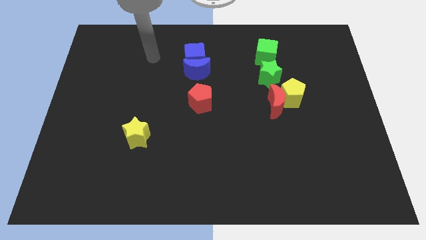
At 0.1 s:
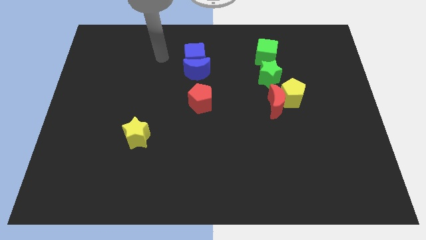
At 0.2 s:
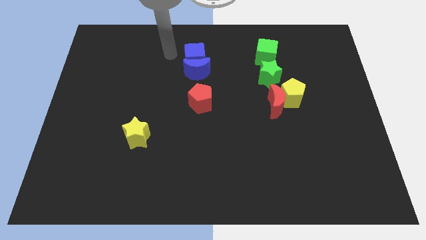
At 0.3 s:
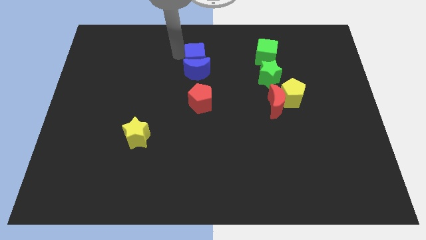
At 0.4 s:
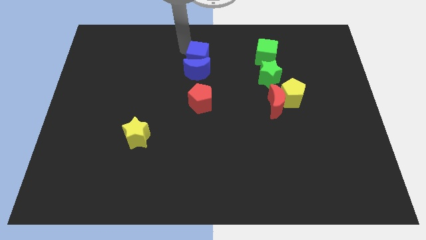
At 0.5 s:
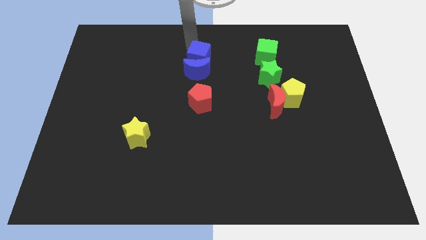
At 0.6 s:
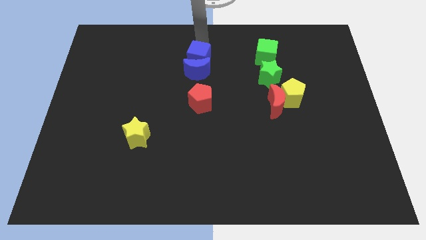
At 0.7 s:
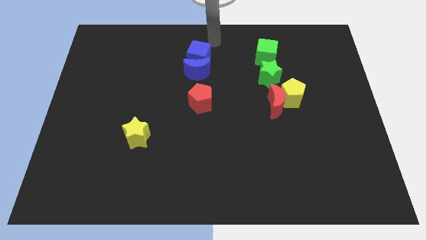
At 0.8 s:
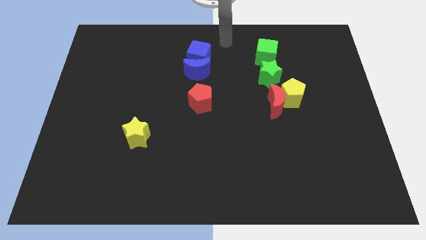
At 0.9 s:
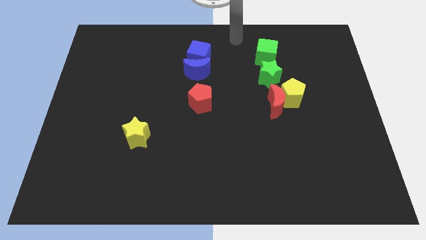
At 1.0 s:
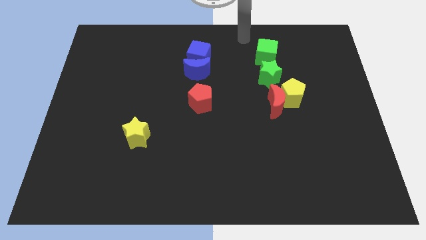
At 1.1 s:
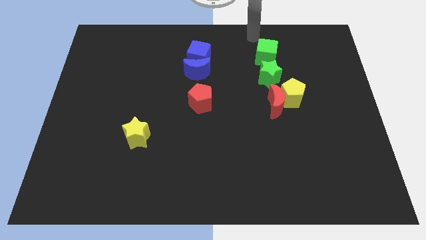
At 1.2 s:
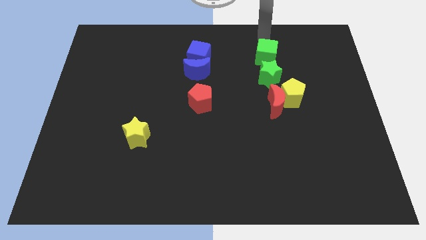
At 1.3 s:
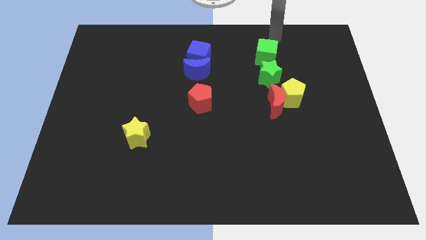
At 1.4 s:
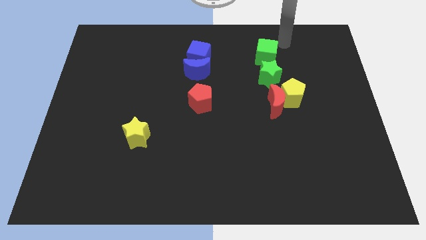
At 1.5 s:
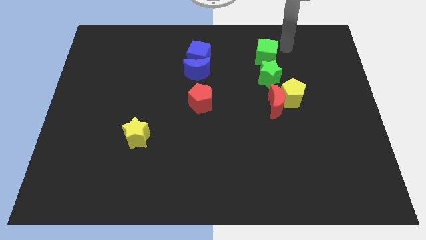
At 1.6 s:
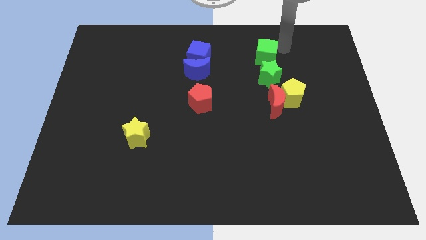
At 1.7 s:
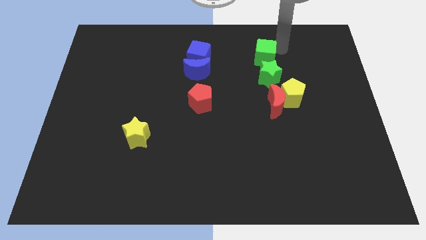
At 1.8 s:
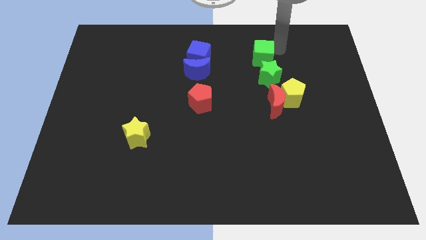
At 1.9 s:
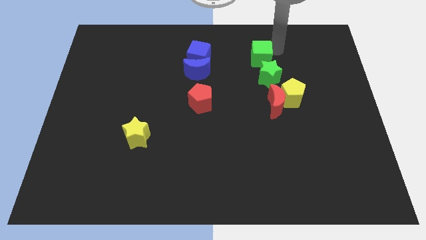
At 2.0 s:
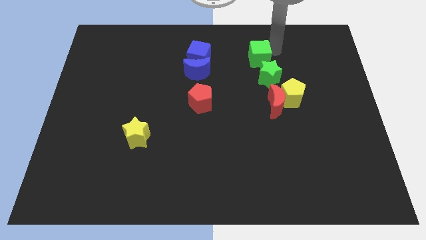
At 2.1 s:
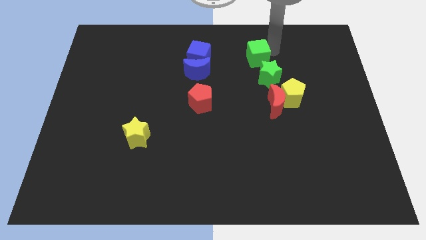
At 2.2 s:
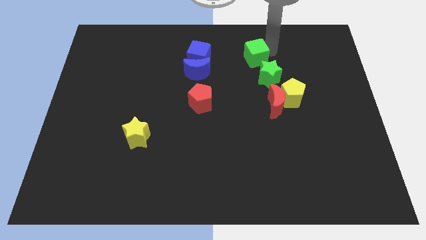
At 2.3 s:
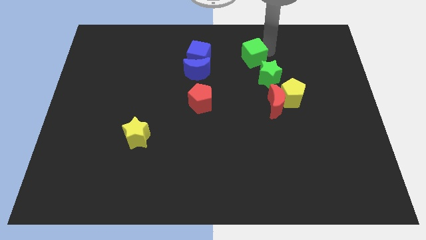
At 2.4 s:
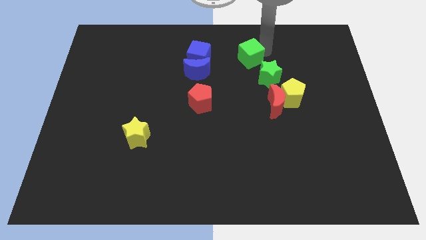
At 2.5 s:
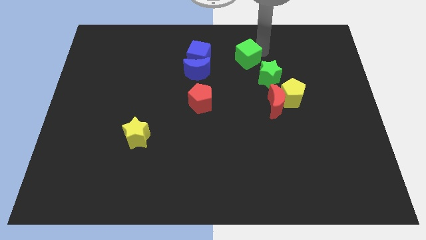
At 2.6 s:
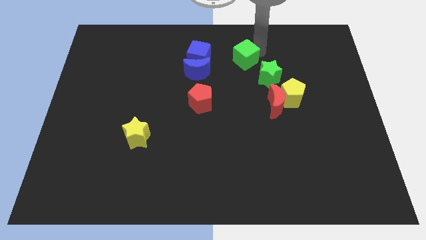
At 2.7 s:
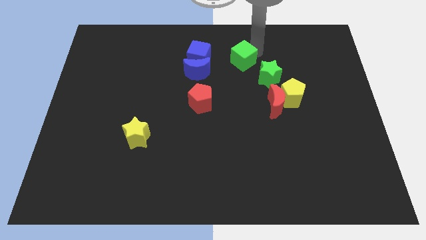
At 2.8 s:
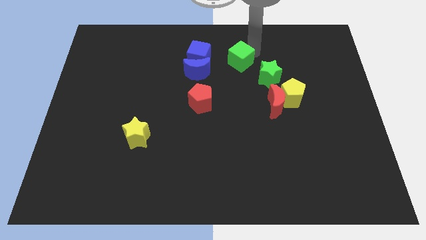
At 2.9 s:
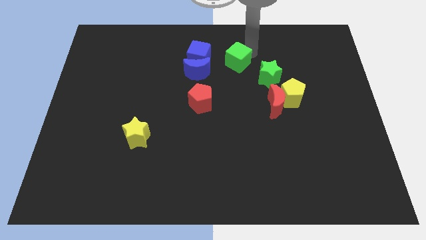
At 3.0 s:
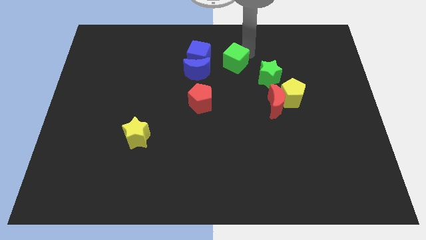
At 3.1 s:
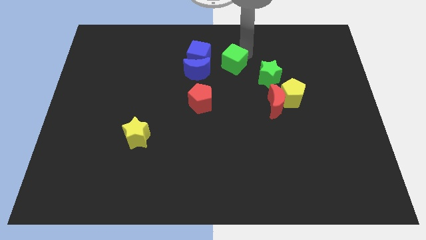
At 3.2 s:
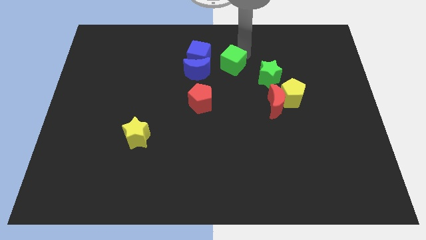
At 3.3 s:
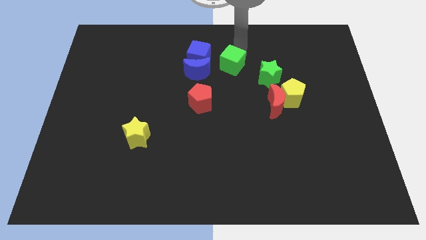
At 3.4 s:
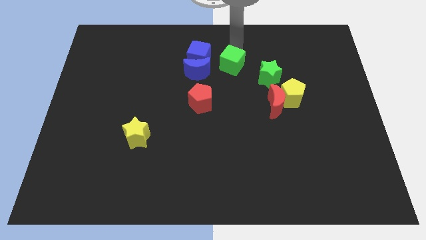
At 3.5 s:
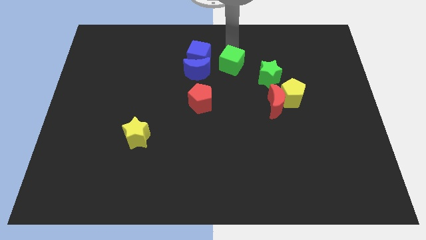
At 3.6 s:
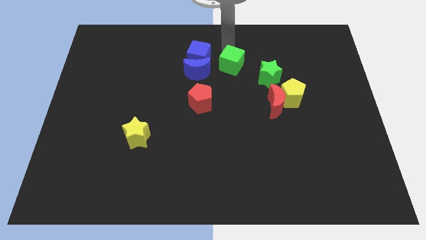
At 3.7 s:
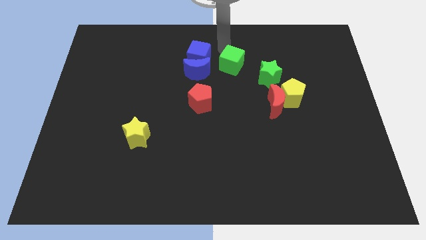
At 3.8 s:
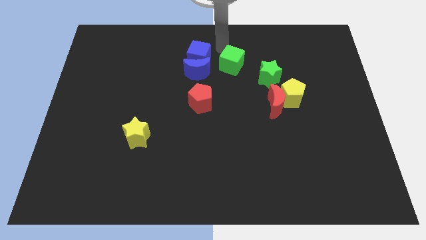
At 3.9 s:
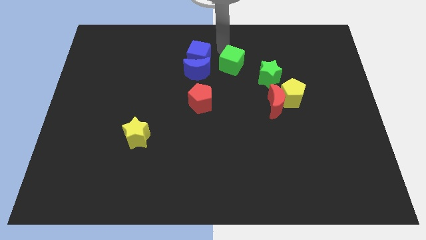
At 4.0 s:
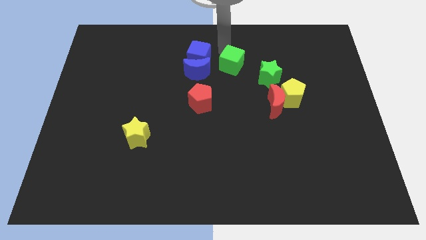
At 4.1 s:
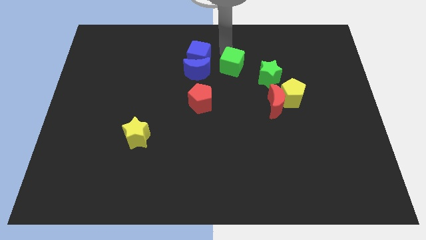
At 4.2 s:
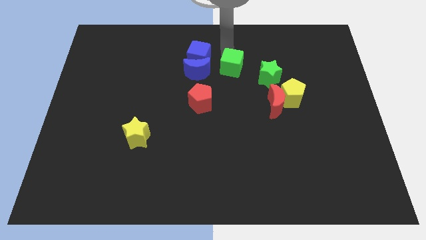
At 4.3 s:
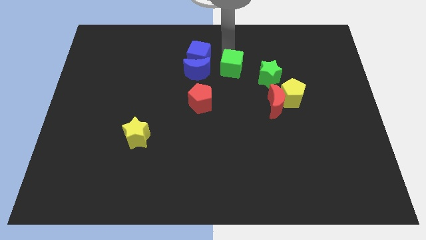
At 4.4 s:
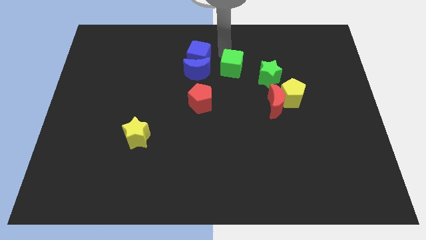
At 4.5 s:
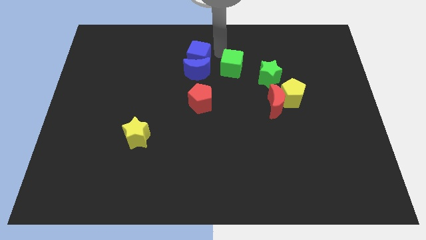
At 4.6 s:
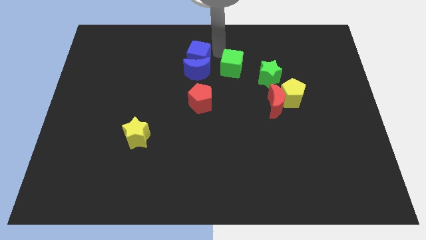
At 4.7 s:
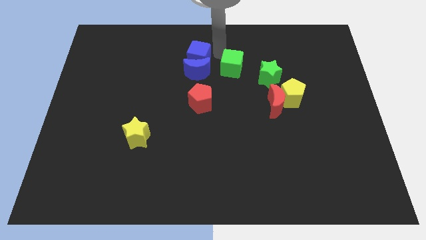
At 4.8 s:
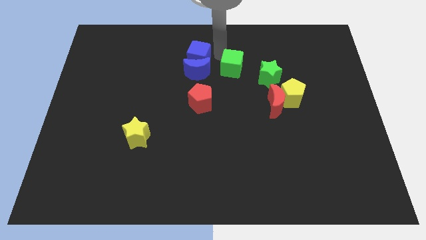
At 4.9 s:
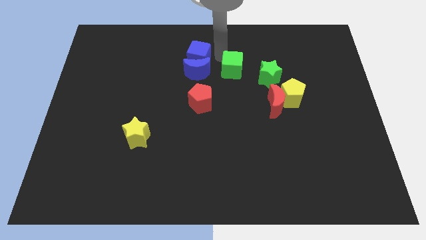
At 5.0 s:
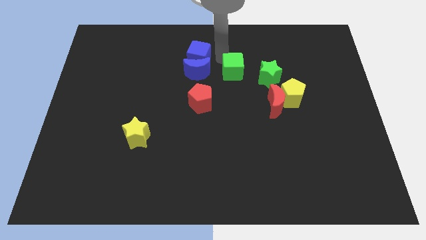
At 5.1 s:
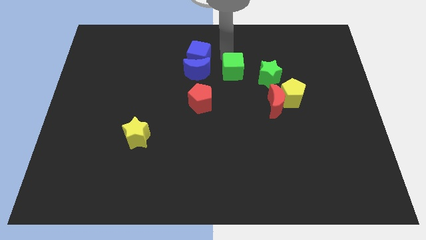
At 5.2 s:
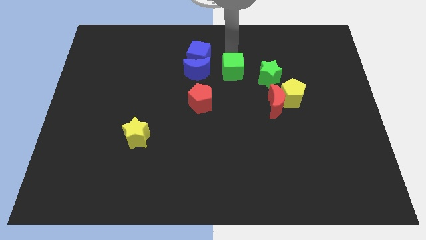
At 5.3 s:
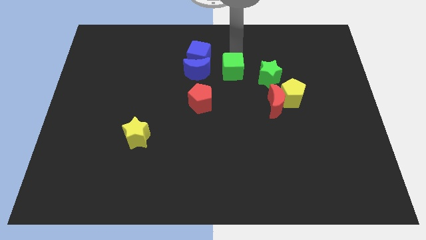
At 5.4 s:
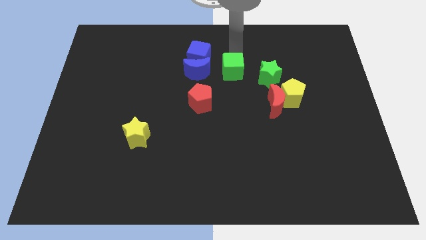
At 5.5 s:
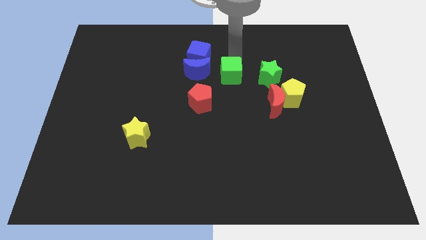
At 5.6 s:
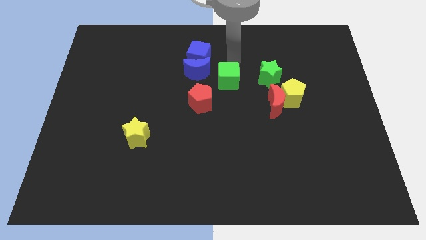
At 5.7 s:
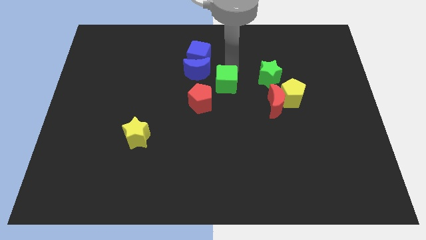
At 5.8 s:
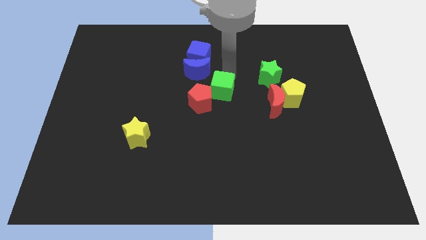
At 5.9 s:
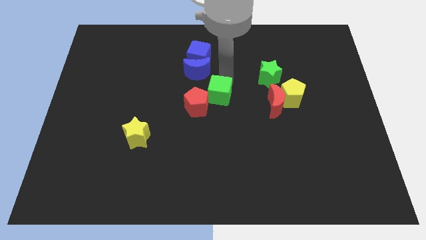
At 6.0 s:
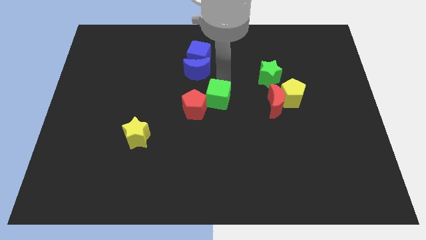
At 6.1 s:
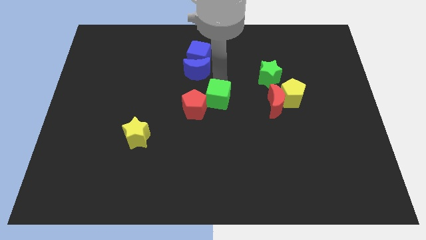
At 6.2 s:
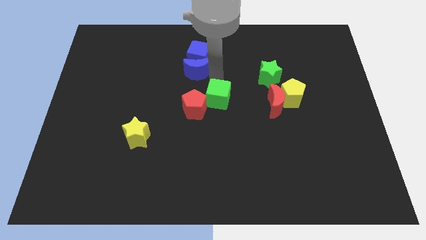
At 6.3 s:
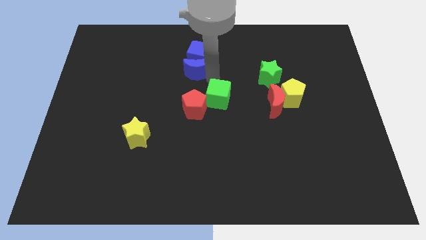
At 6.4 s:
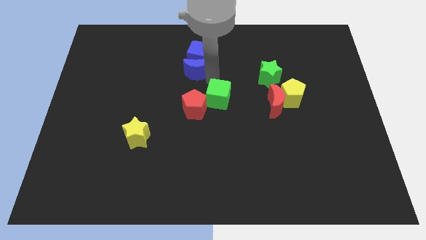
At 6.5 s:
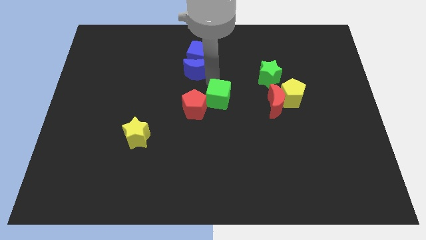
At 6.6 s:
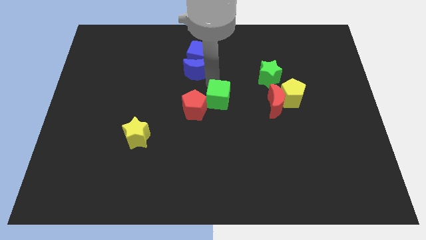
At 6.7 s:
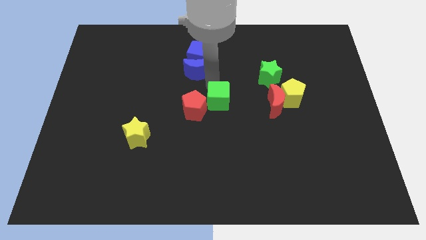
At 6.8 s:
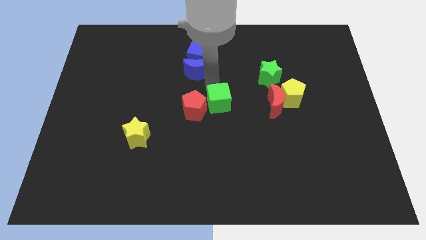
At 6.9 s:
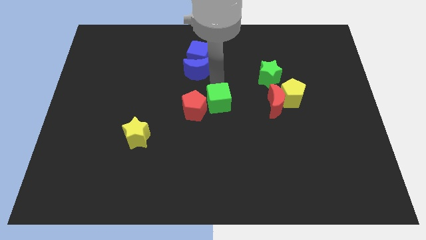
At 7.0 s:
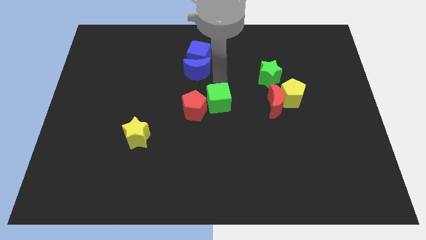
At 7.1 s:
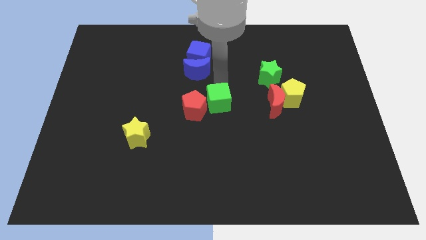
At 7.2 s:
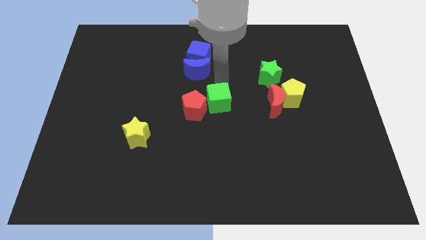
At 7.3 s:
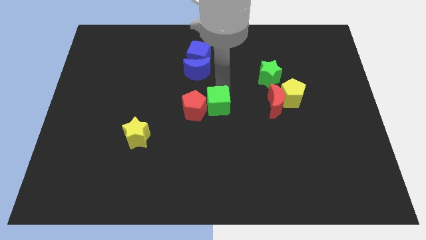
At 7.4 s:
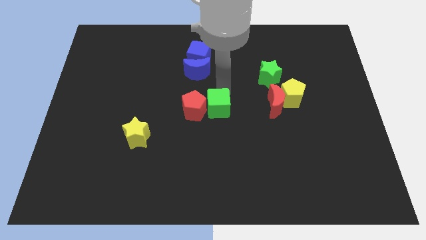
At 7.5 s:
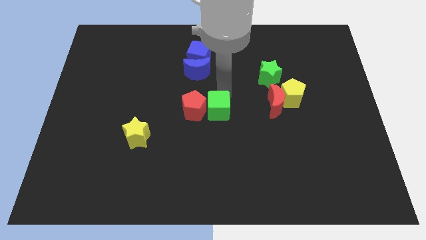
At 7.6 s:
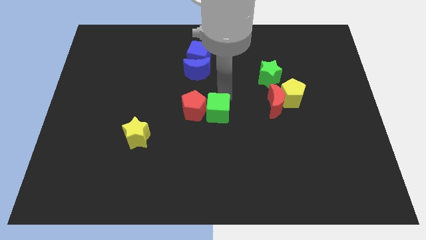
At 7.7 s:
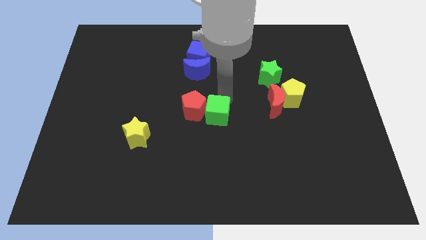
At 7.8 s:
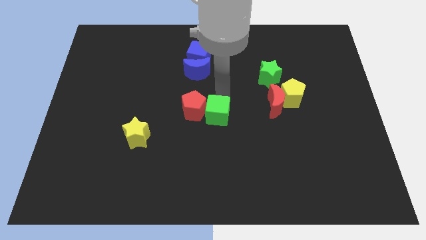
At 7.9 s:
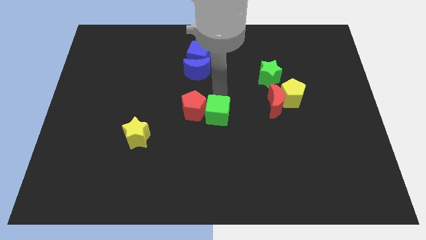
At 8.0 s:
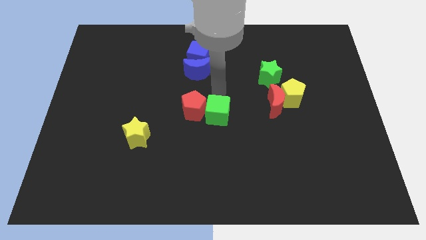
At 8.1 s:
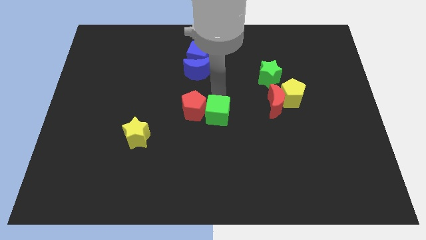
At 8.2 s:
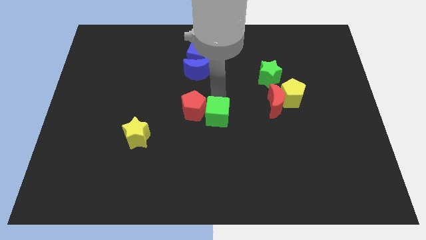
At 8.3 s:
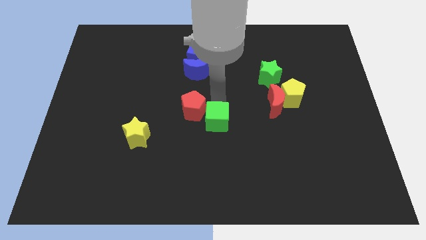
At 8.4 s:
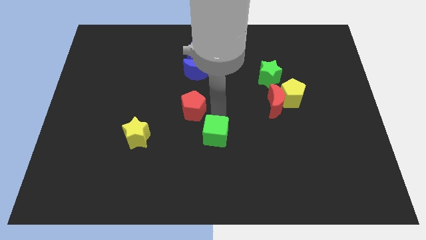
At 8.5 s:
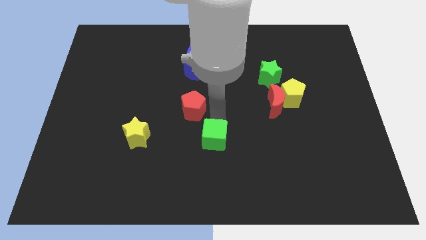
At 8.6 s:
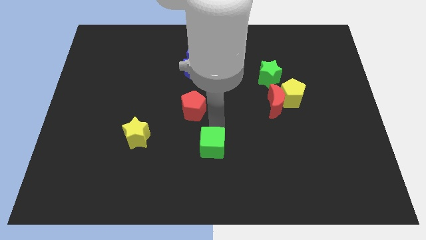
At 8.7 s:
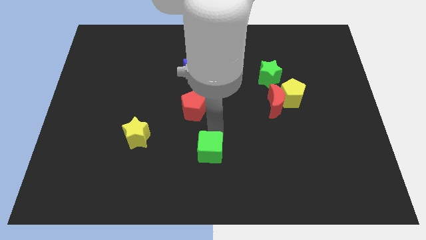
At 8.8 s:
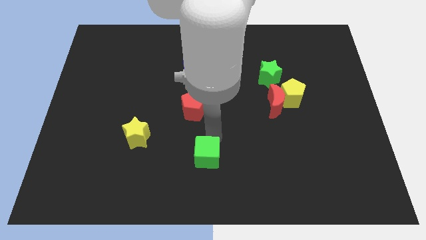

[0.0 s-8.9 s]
put the green cube to the bottom side
